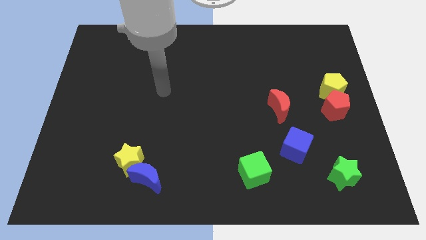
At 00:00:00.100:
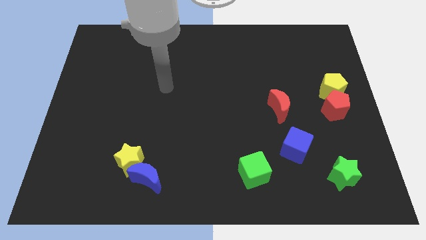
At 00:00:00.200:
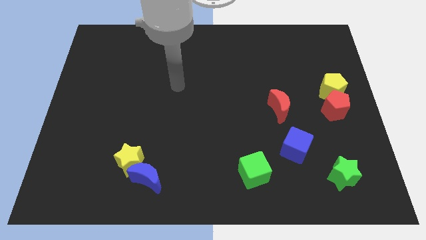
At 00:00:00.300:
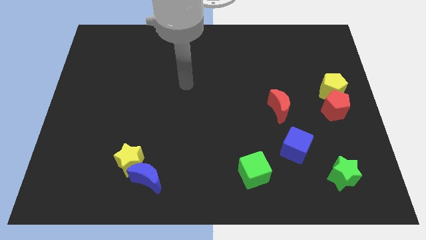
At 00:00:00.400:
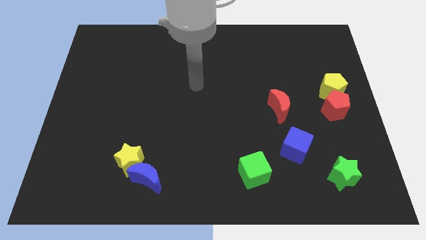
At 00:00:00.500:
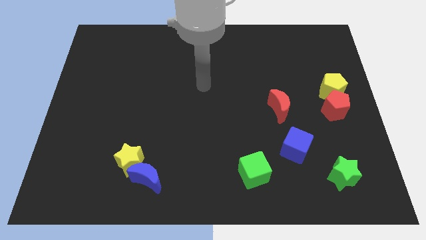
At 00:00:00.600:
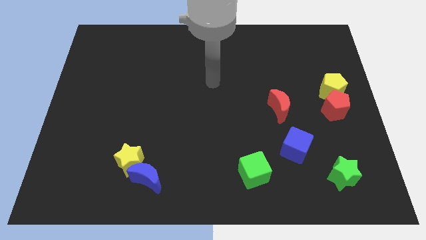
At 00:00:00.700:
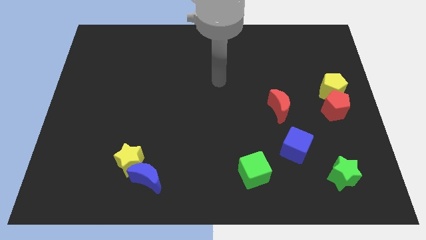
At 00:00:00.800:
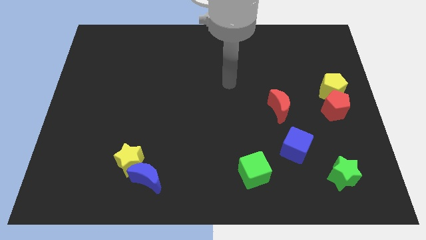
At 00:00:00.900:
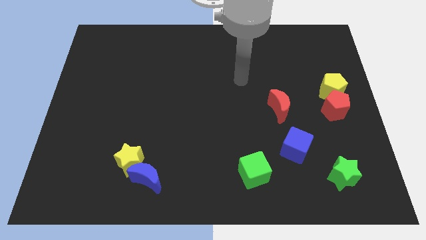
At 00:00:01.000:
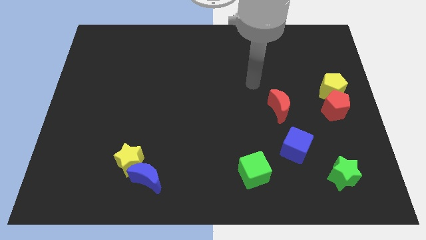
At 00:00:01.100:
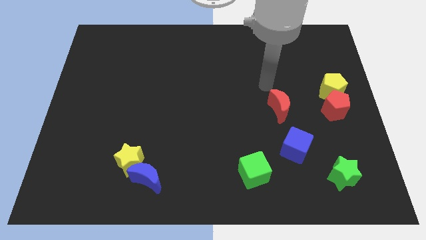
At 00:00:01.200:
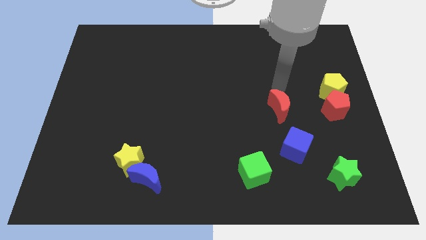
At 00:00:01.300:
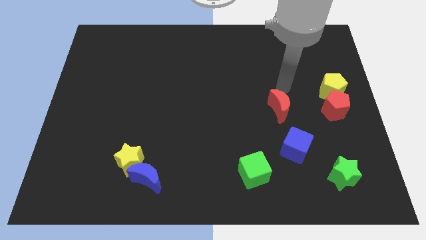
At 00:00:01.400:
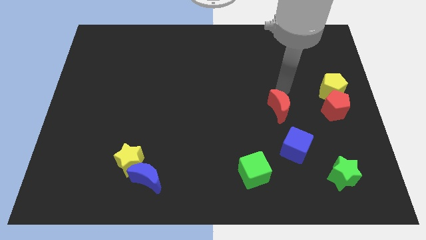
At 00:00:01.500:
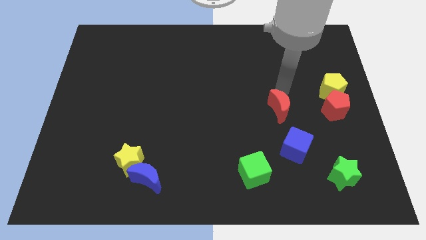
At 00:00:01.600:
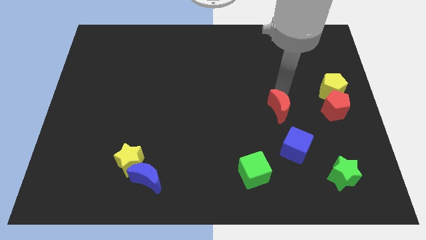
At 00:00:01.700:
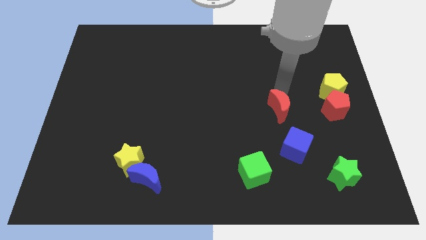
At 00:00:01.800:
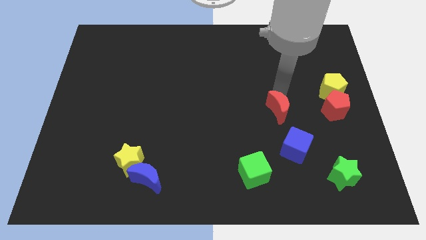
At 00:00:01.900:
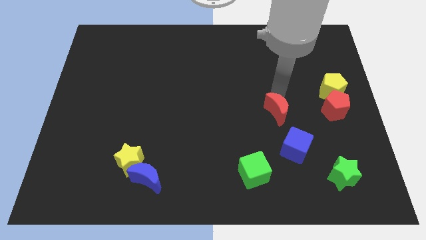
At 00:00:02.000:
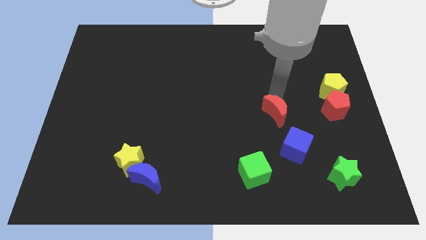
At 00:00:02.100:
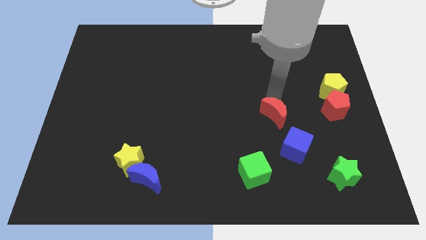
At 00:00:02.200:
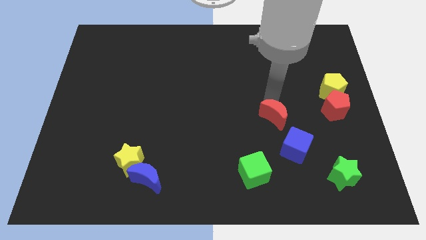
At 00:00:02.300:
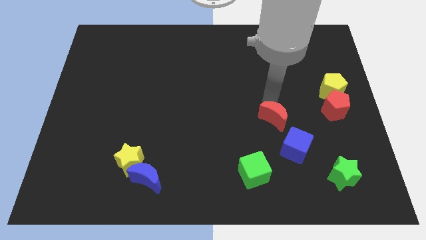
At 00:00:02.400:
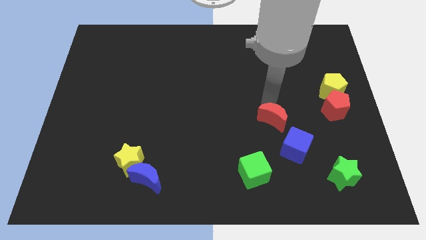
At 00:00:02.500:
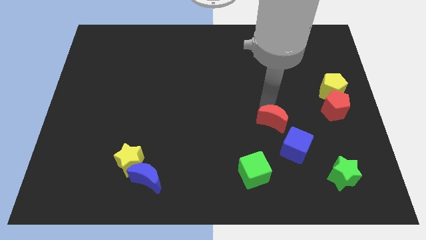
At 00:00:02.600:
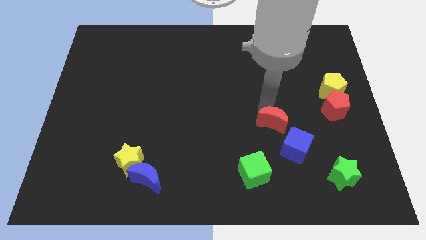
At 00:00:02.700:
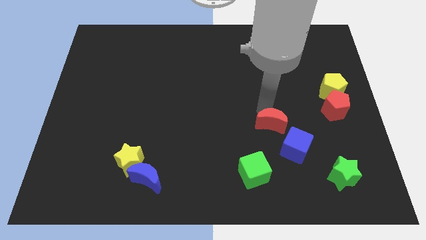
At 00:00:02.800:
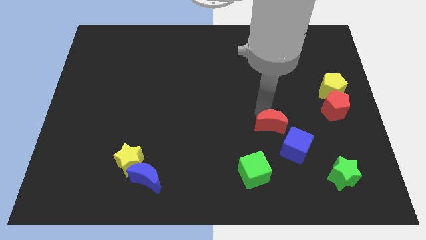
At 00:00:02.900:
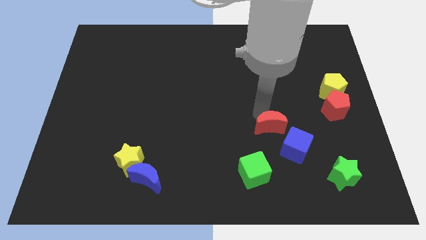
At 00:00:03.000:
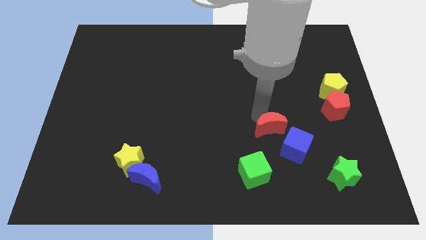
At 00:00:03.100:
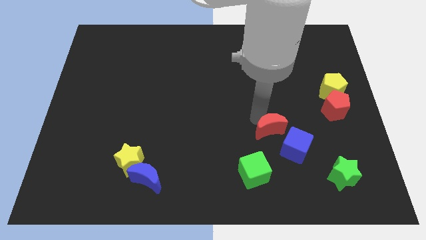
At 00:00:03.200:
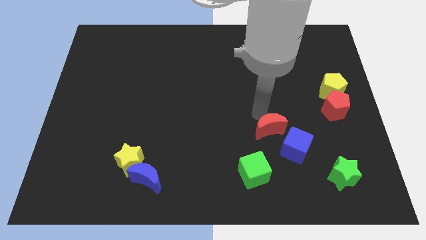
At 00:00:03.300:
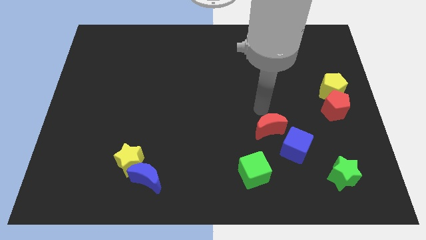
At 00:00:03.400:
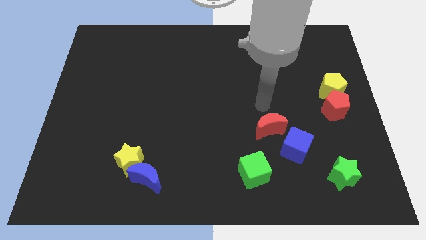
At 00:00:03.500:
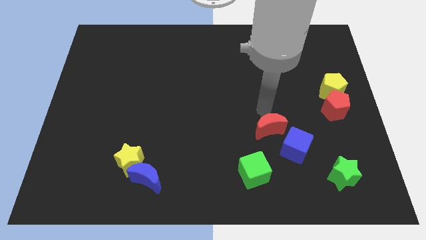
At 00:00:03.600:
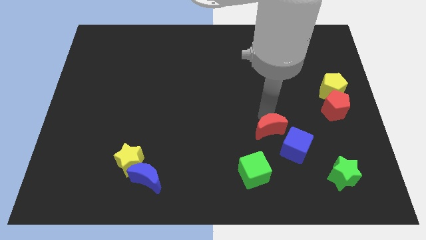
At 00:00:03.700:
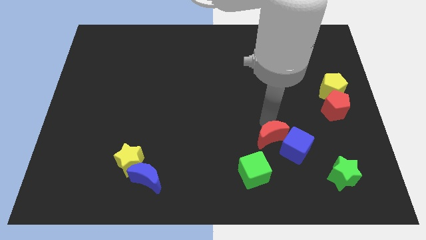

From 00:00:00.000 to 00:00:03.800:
push the red moon somewhat down

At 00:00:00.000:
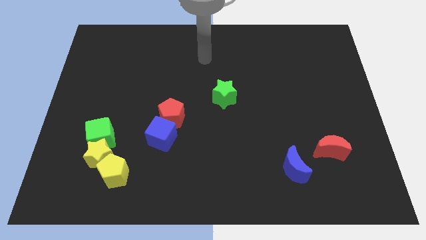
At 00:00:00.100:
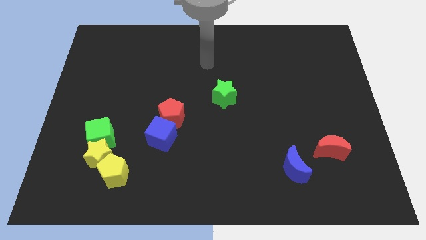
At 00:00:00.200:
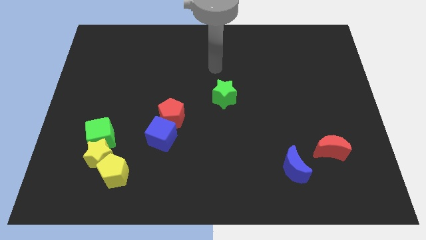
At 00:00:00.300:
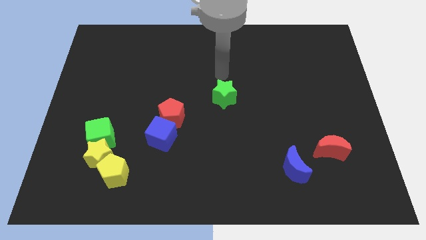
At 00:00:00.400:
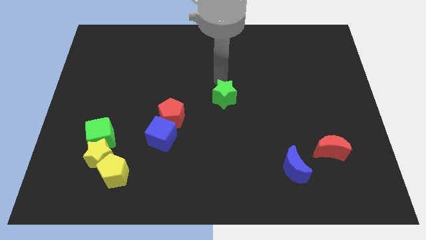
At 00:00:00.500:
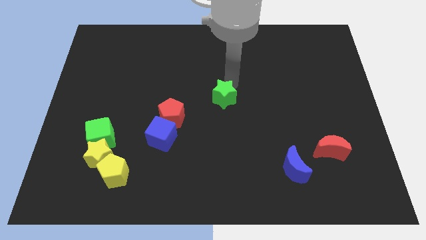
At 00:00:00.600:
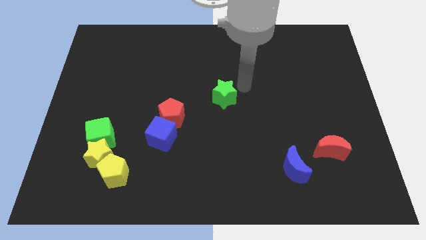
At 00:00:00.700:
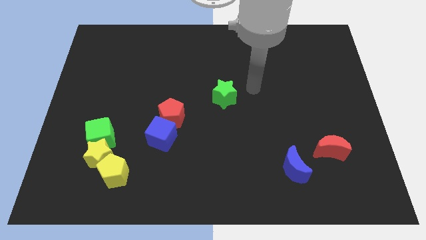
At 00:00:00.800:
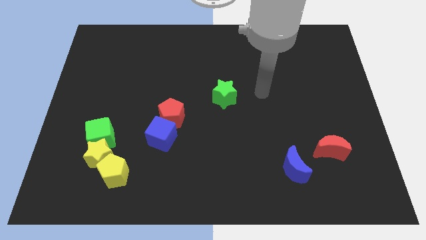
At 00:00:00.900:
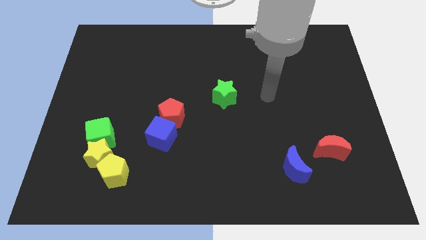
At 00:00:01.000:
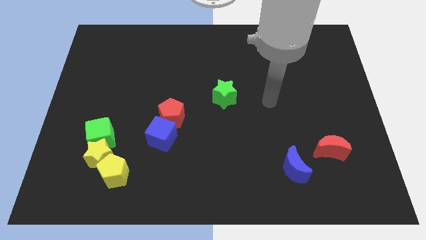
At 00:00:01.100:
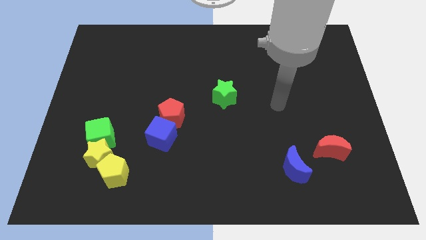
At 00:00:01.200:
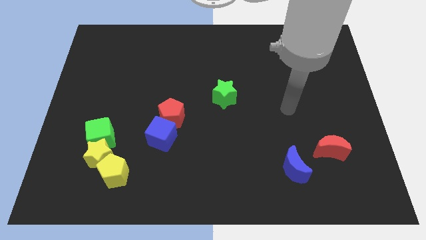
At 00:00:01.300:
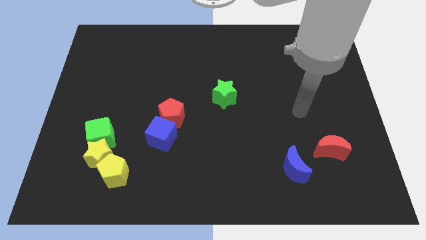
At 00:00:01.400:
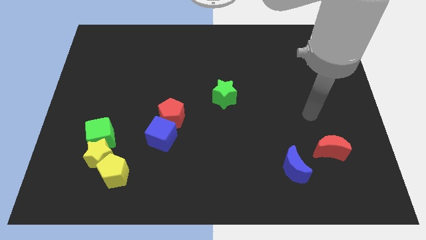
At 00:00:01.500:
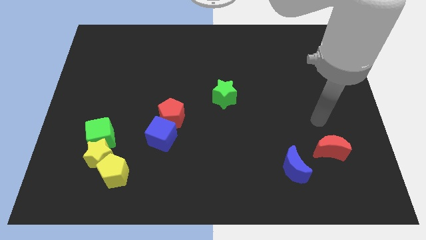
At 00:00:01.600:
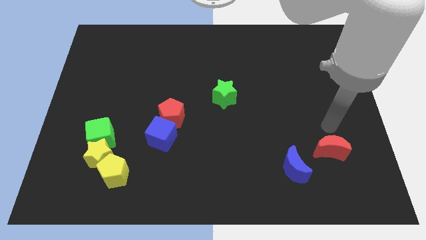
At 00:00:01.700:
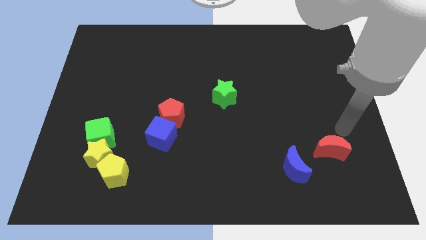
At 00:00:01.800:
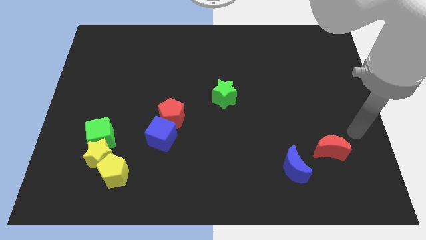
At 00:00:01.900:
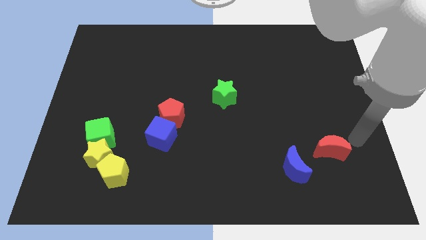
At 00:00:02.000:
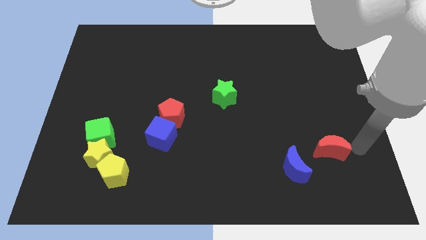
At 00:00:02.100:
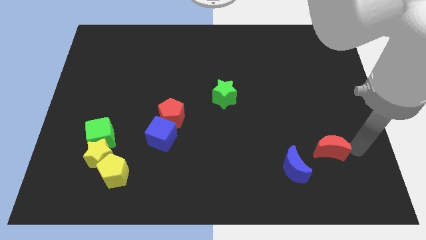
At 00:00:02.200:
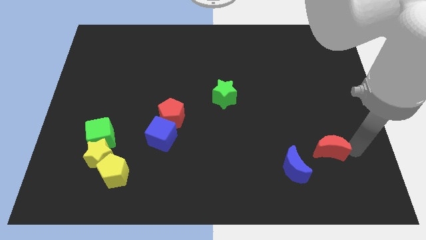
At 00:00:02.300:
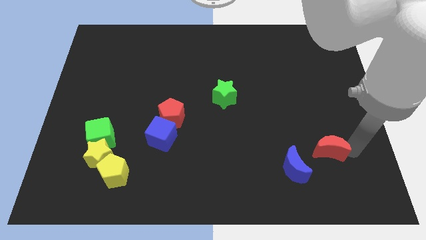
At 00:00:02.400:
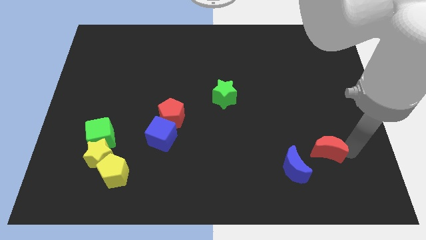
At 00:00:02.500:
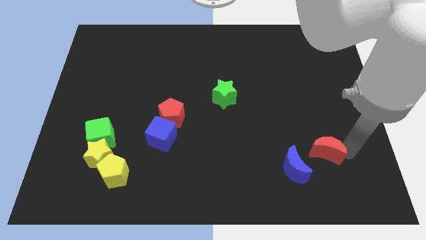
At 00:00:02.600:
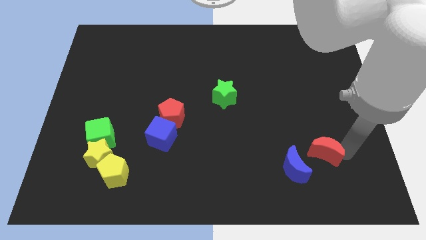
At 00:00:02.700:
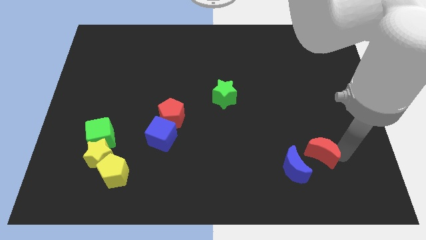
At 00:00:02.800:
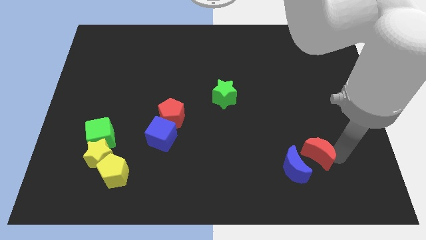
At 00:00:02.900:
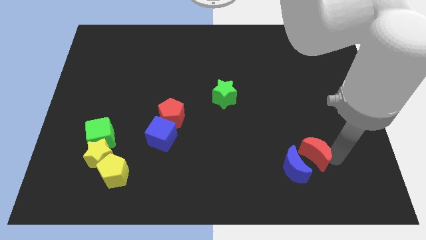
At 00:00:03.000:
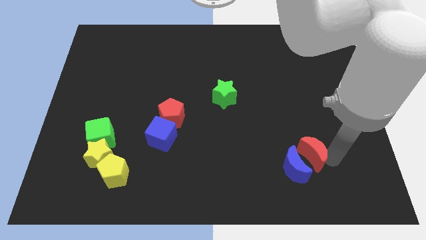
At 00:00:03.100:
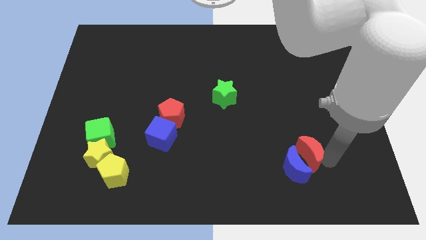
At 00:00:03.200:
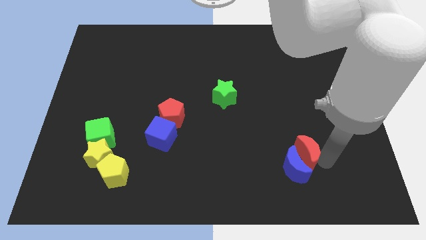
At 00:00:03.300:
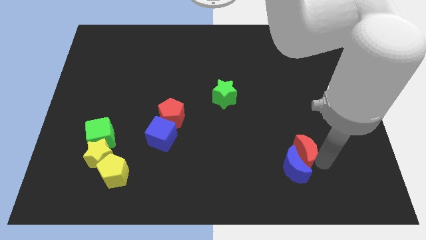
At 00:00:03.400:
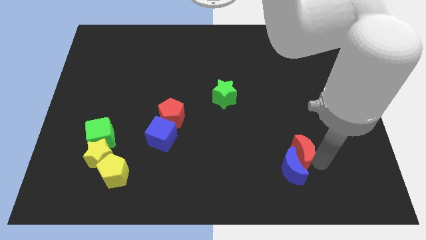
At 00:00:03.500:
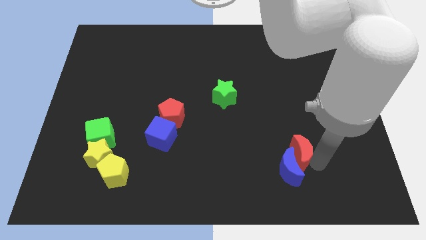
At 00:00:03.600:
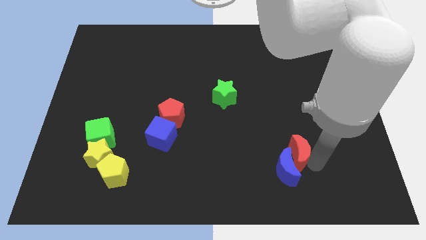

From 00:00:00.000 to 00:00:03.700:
move the red moon a bit to the left

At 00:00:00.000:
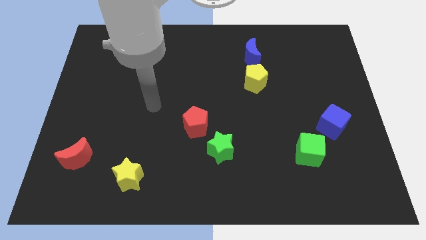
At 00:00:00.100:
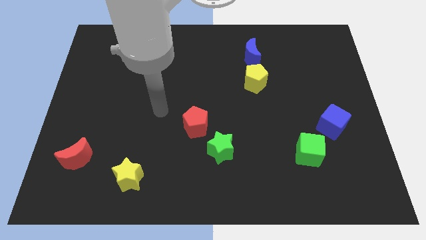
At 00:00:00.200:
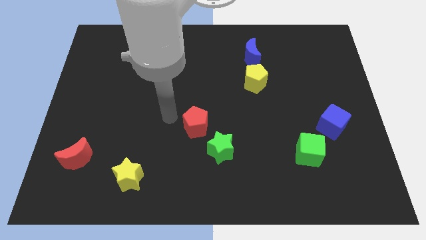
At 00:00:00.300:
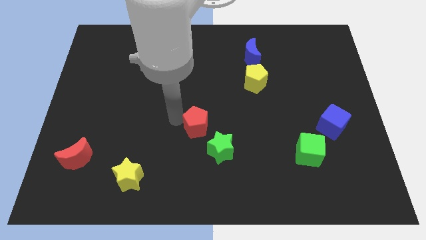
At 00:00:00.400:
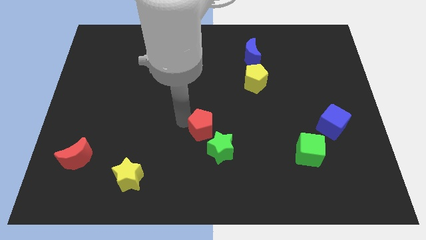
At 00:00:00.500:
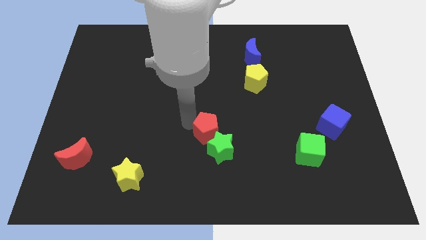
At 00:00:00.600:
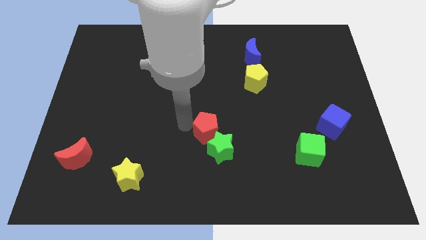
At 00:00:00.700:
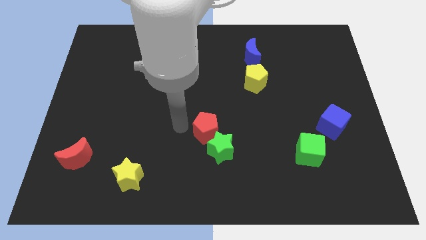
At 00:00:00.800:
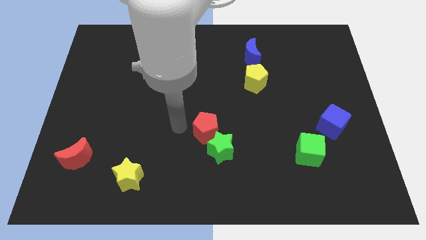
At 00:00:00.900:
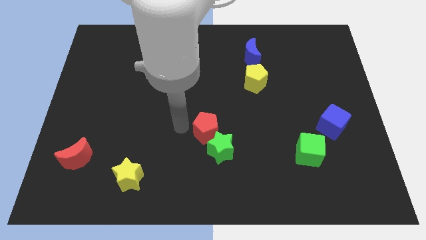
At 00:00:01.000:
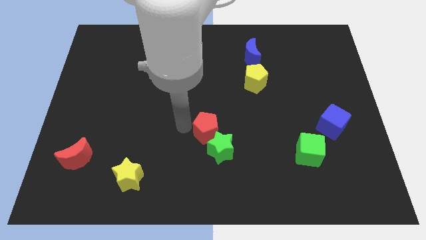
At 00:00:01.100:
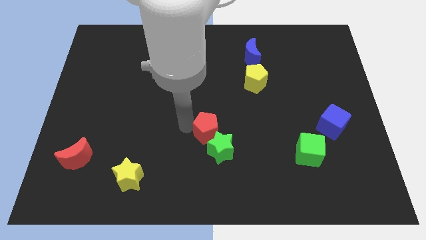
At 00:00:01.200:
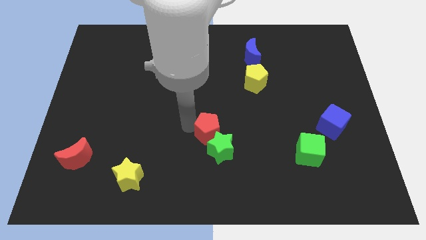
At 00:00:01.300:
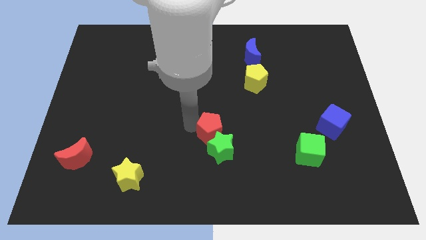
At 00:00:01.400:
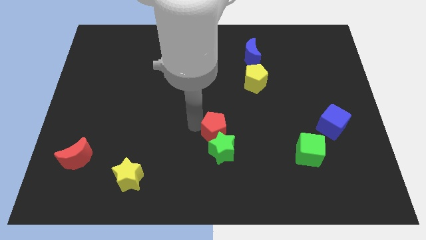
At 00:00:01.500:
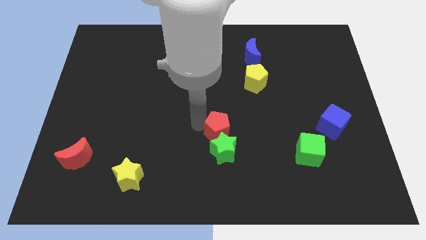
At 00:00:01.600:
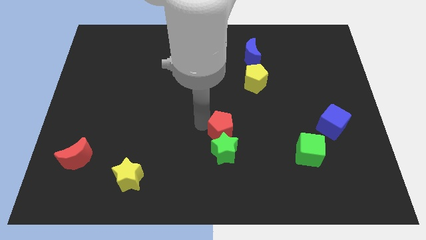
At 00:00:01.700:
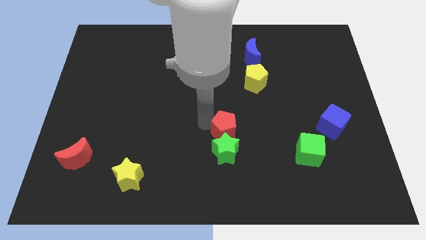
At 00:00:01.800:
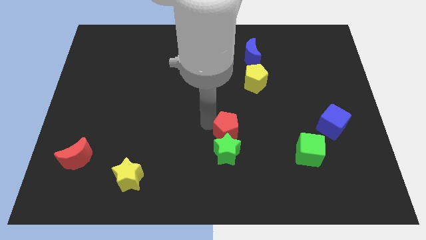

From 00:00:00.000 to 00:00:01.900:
slightly push the red pentagon right
